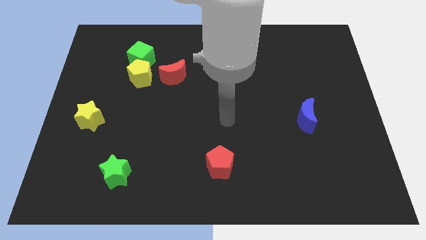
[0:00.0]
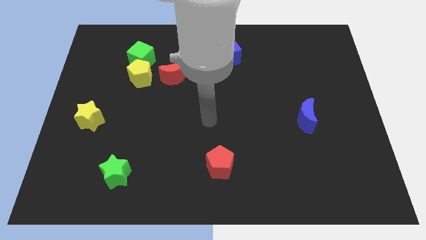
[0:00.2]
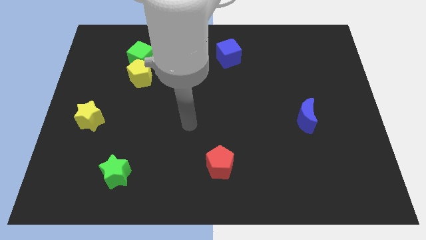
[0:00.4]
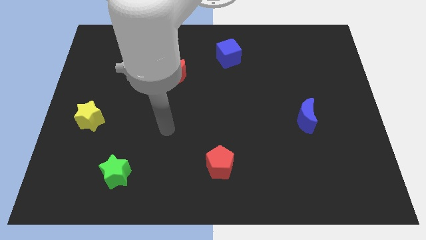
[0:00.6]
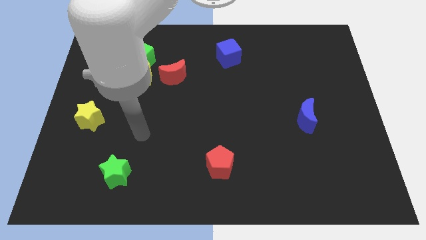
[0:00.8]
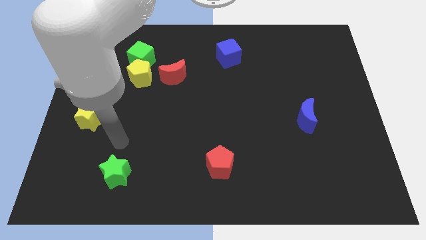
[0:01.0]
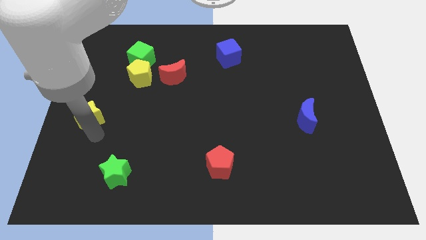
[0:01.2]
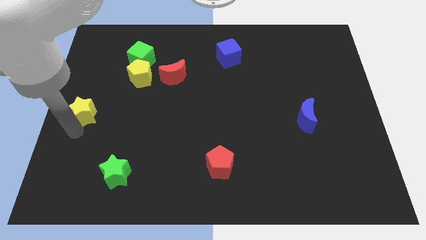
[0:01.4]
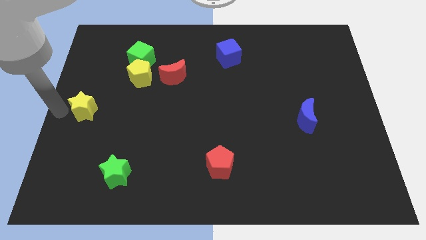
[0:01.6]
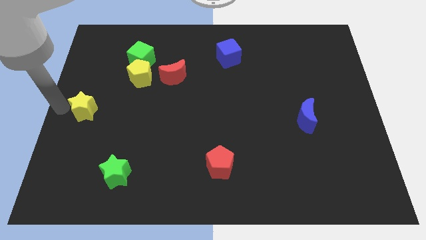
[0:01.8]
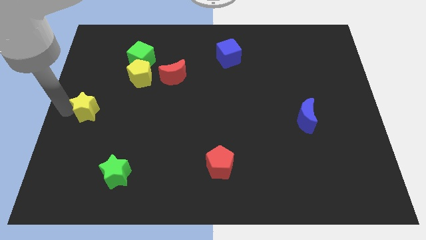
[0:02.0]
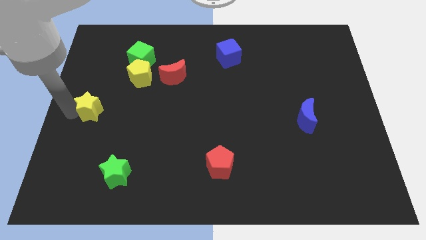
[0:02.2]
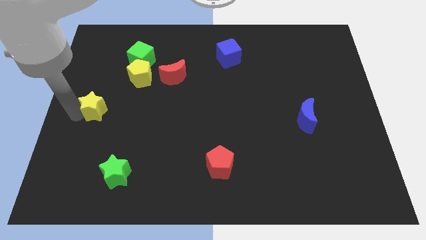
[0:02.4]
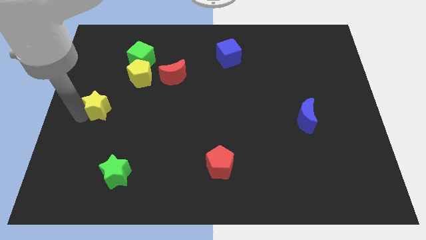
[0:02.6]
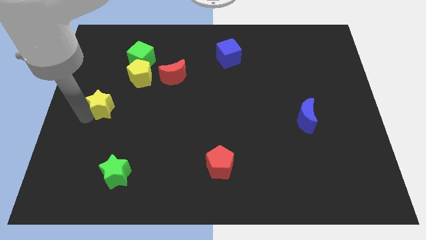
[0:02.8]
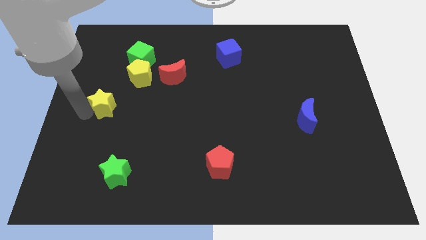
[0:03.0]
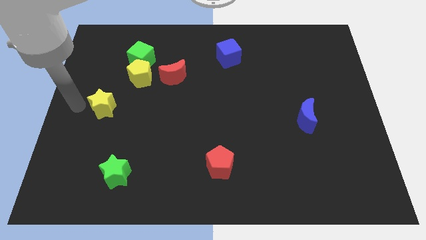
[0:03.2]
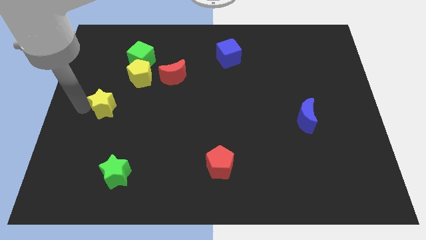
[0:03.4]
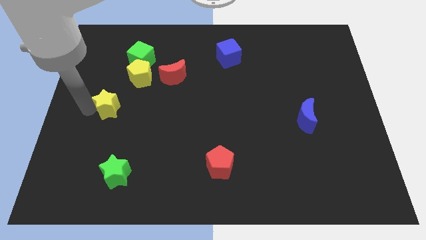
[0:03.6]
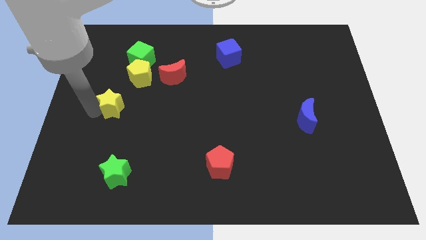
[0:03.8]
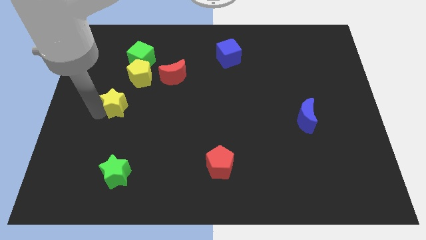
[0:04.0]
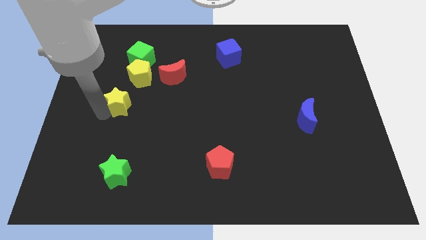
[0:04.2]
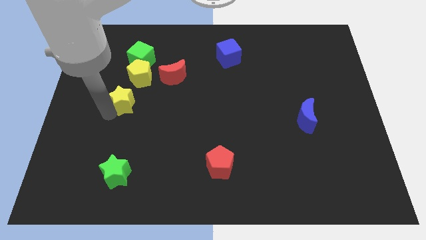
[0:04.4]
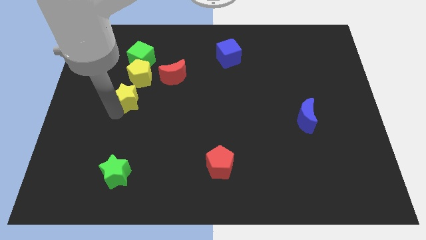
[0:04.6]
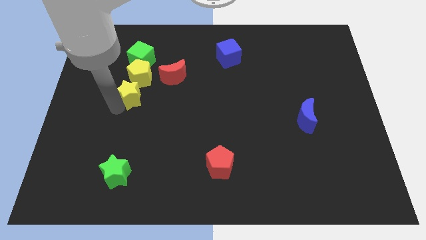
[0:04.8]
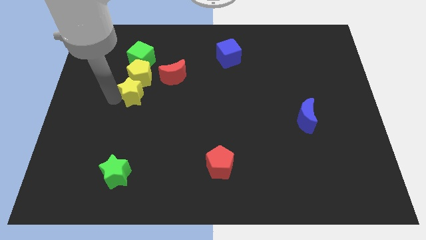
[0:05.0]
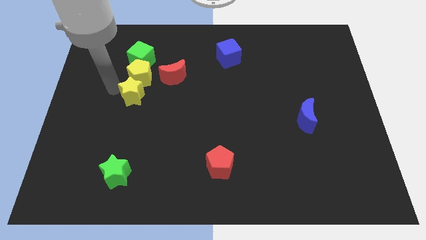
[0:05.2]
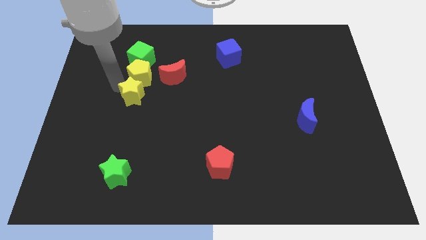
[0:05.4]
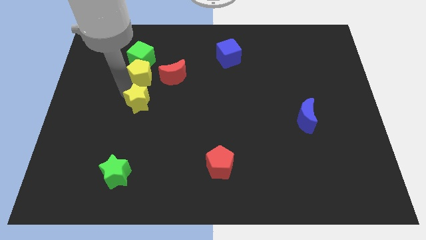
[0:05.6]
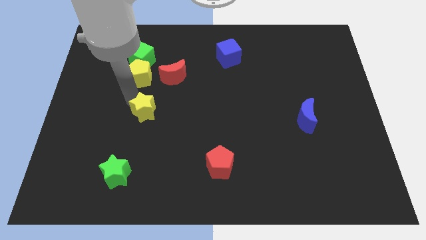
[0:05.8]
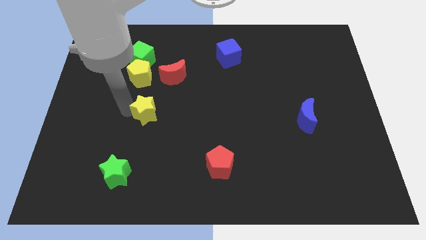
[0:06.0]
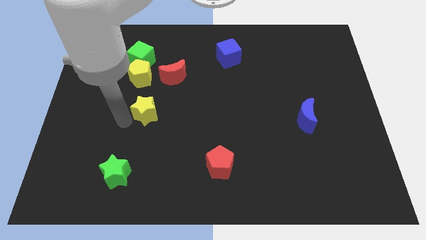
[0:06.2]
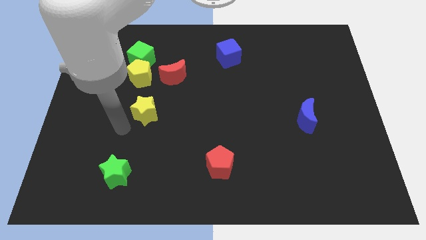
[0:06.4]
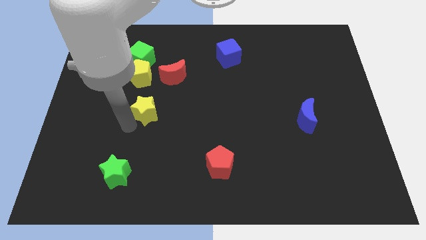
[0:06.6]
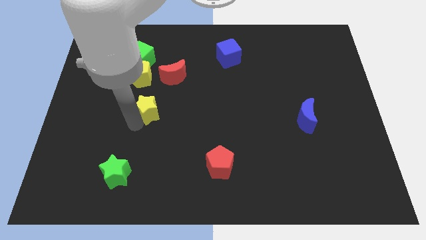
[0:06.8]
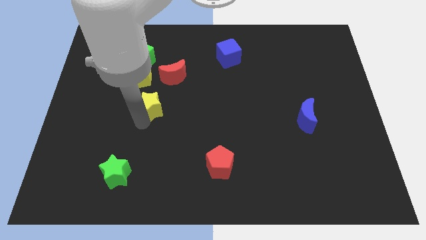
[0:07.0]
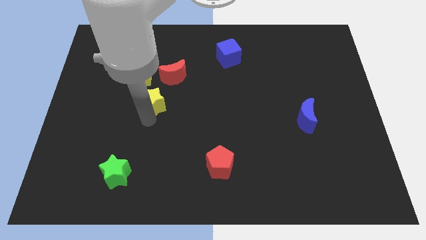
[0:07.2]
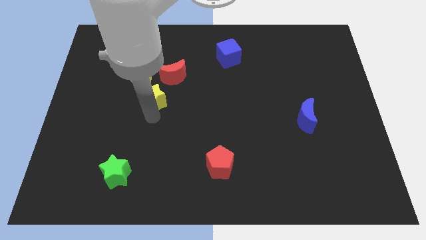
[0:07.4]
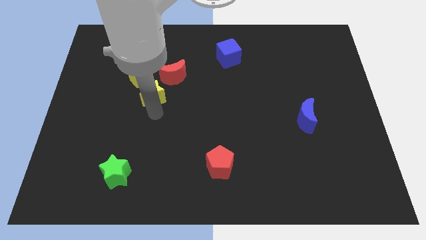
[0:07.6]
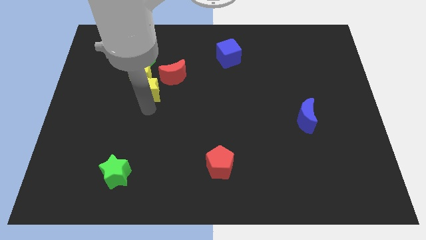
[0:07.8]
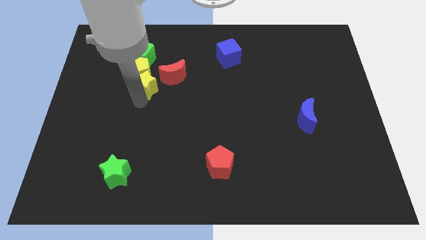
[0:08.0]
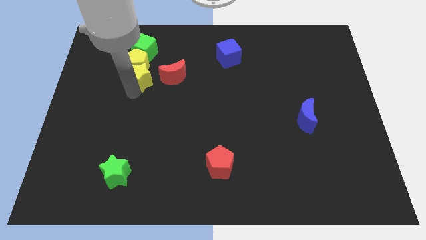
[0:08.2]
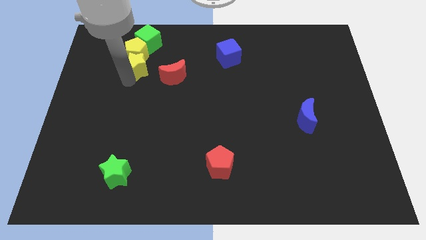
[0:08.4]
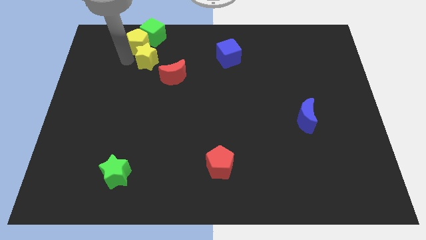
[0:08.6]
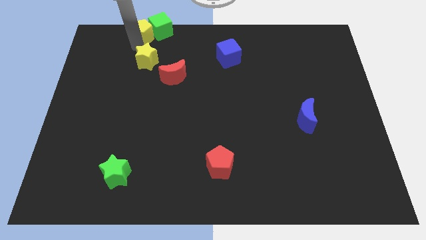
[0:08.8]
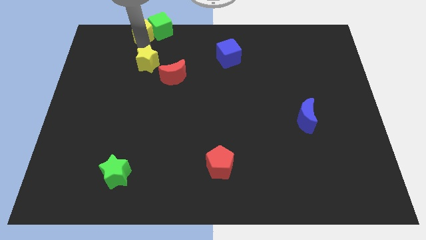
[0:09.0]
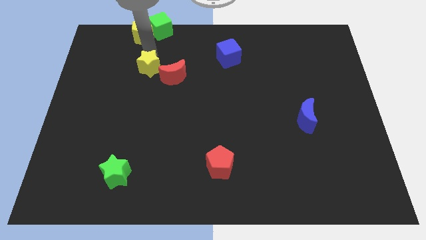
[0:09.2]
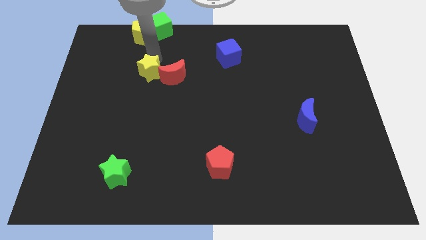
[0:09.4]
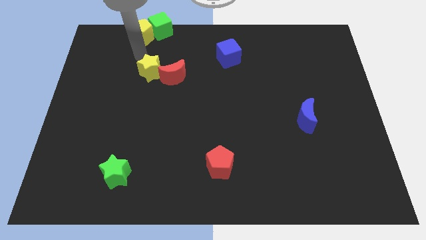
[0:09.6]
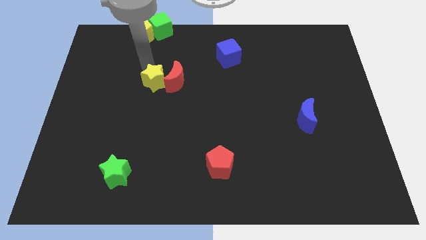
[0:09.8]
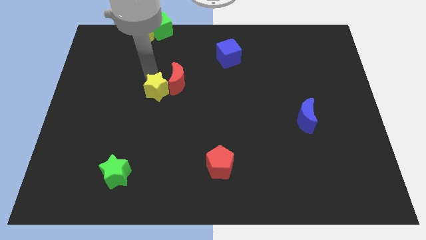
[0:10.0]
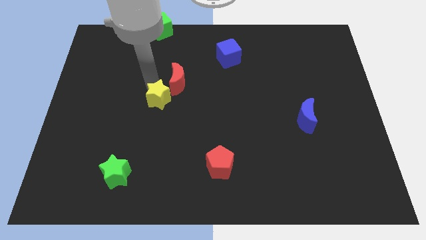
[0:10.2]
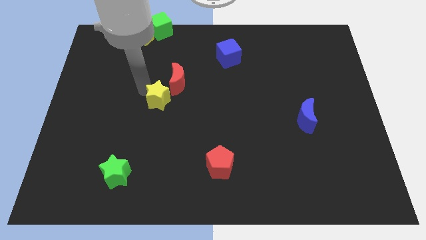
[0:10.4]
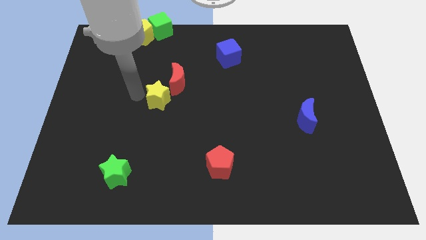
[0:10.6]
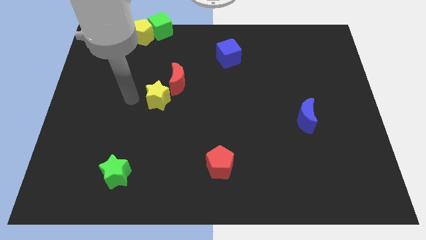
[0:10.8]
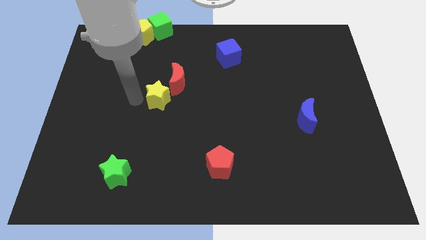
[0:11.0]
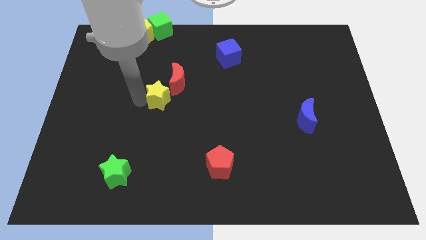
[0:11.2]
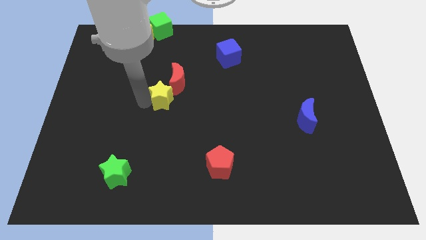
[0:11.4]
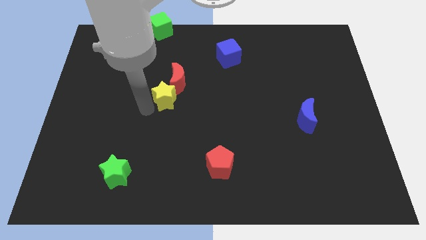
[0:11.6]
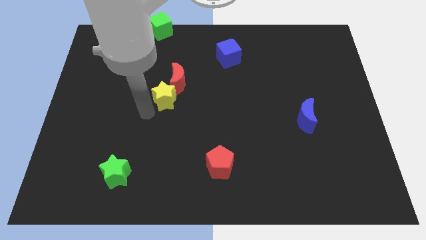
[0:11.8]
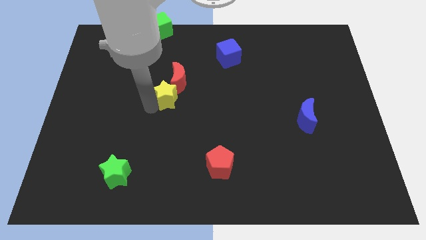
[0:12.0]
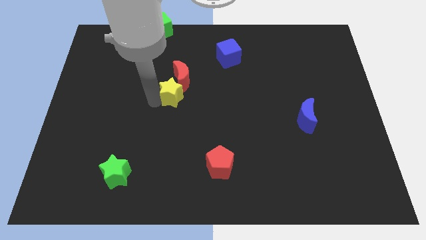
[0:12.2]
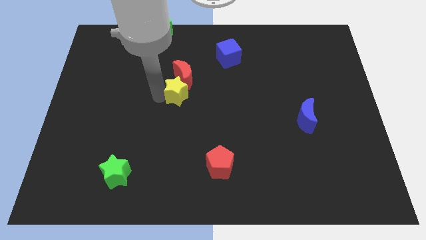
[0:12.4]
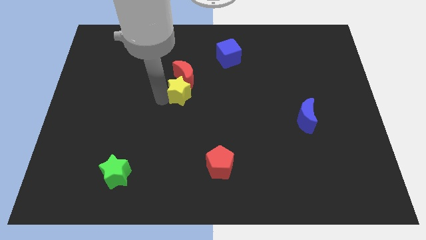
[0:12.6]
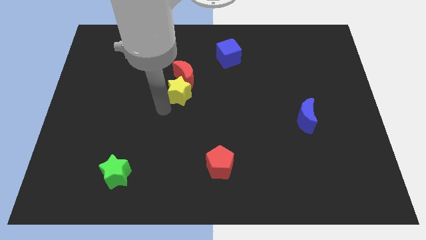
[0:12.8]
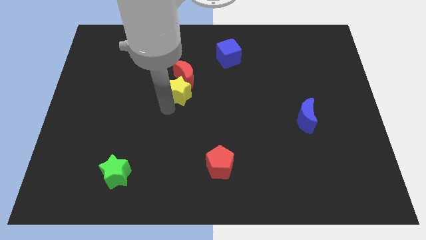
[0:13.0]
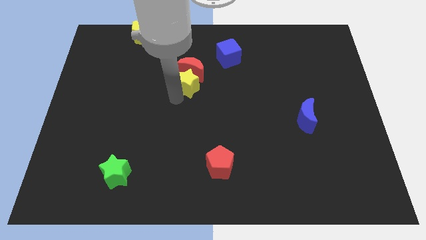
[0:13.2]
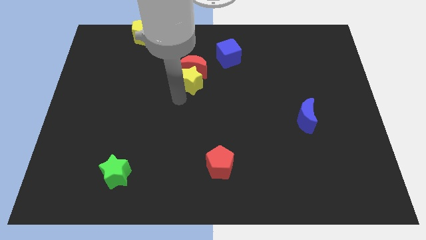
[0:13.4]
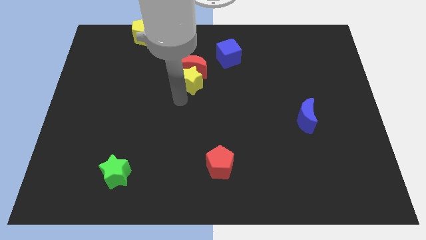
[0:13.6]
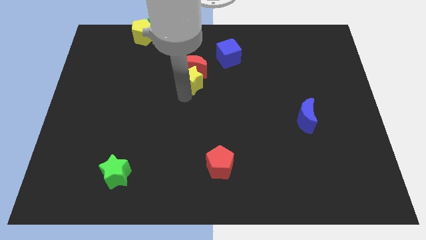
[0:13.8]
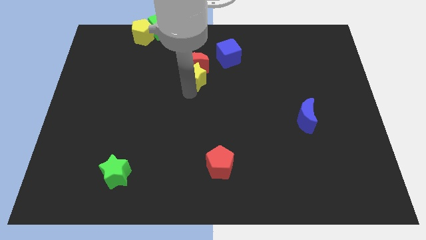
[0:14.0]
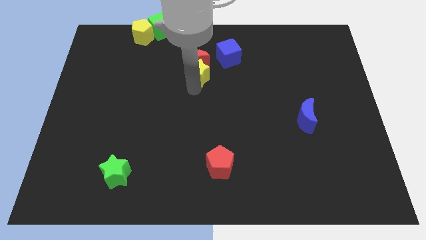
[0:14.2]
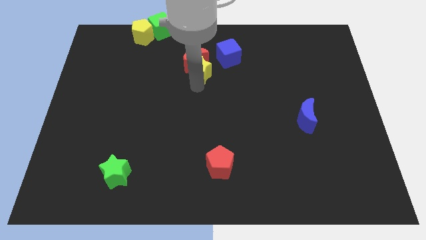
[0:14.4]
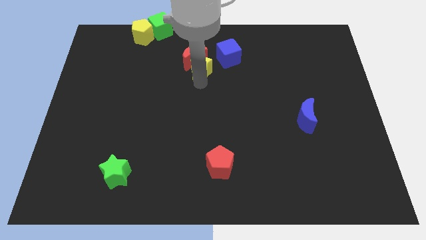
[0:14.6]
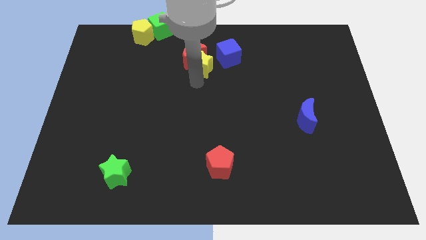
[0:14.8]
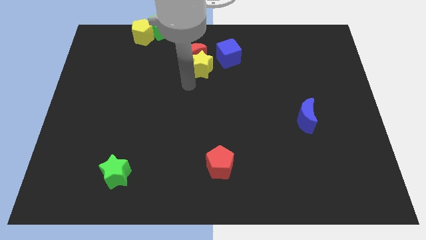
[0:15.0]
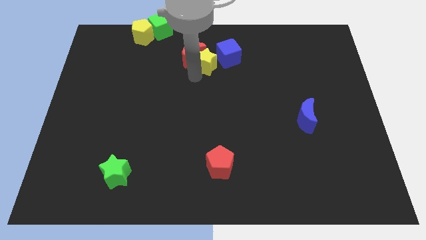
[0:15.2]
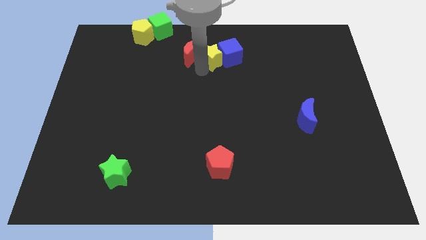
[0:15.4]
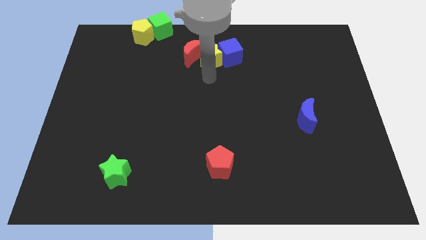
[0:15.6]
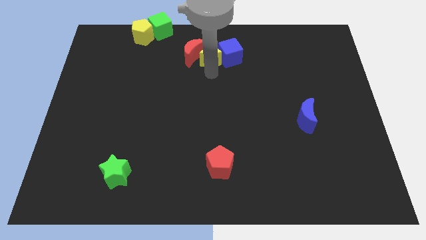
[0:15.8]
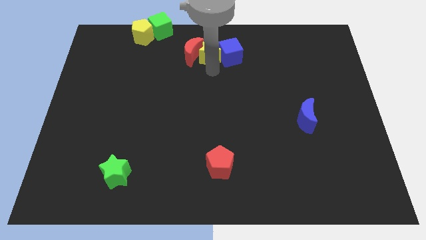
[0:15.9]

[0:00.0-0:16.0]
put the yellow star to the towards your base
